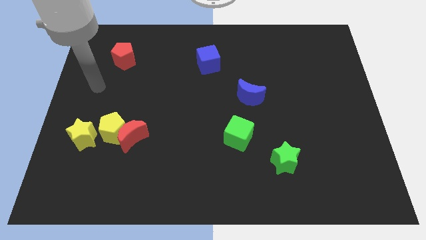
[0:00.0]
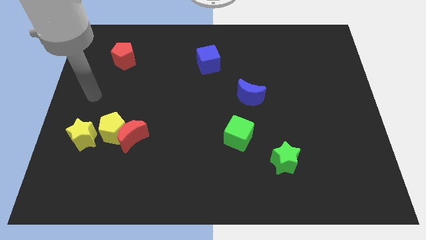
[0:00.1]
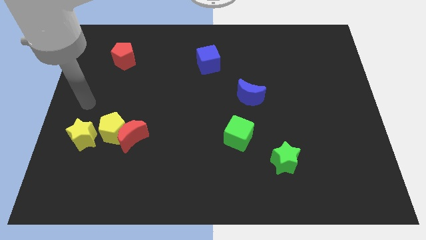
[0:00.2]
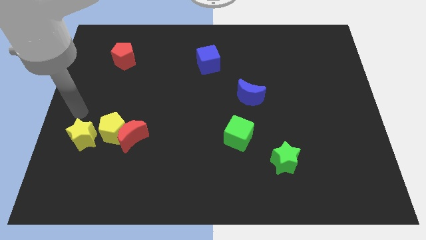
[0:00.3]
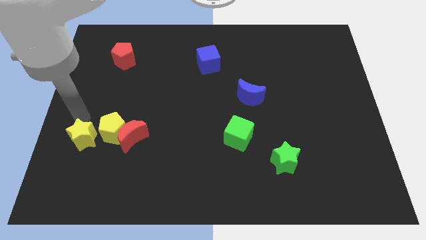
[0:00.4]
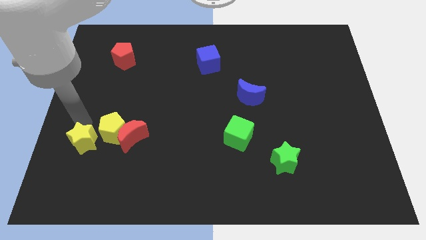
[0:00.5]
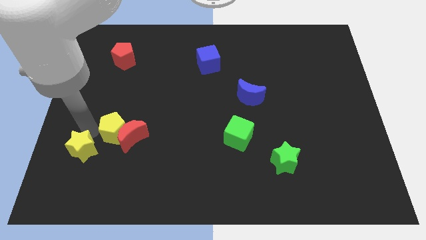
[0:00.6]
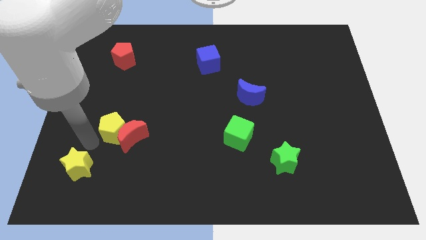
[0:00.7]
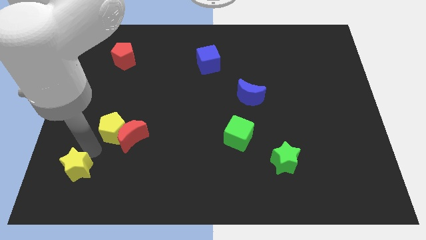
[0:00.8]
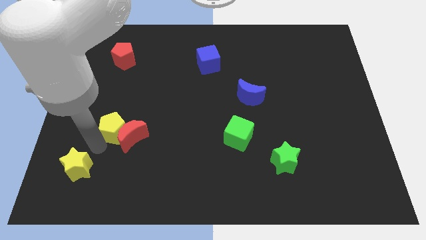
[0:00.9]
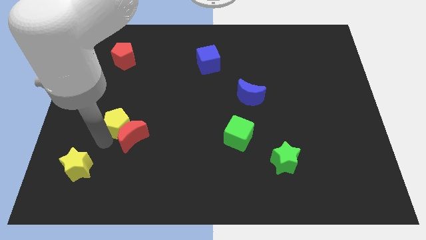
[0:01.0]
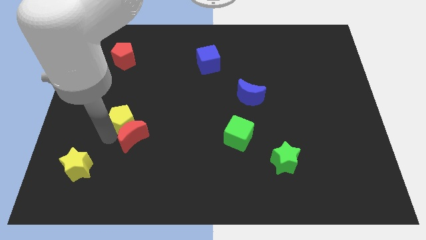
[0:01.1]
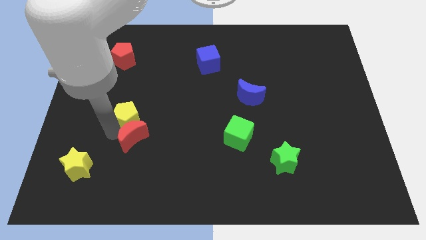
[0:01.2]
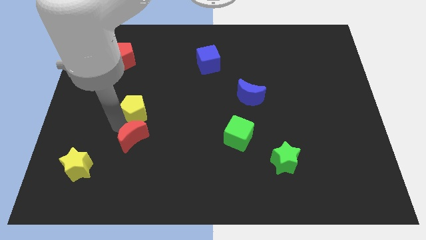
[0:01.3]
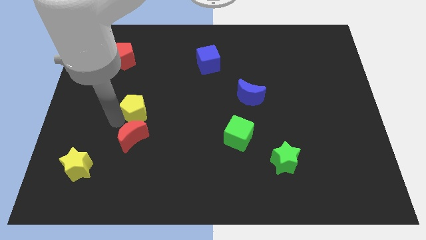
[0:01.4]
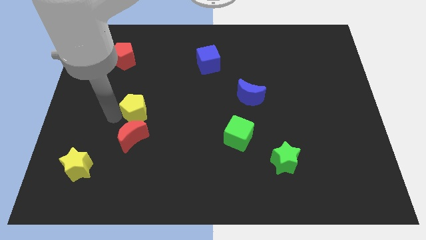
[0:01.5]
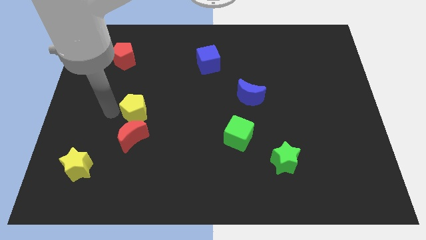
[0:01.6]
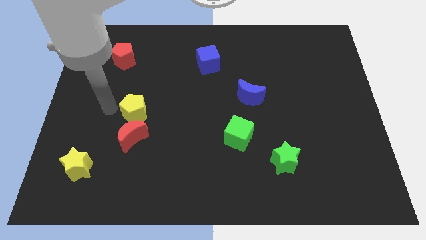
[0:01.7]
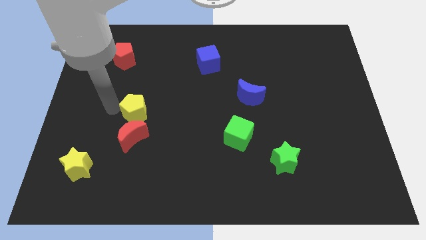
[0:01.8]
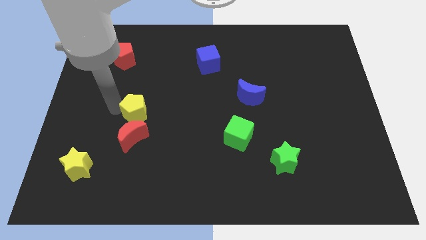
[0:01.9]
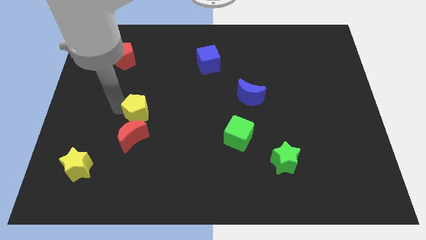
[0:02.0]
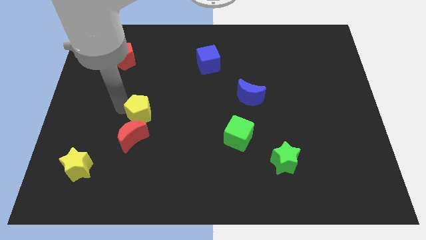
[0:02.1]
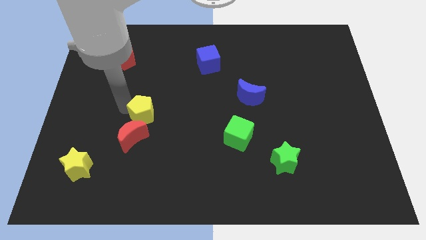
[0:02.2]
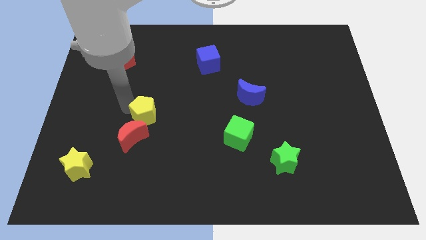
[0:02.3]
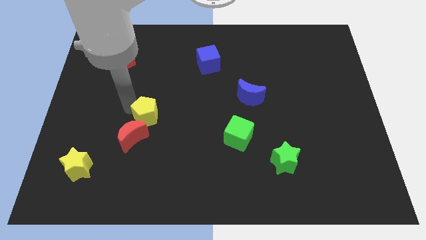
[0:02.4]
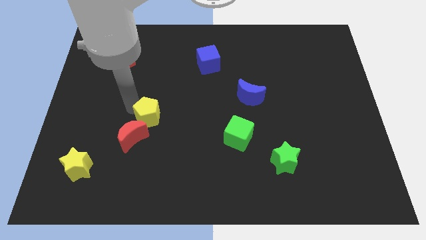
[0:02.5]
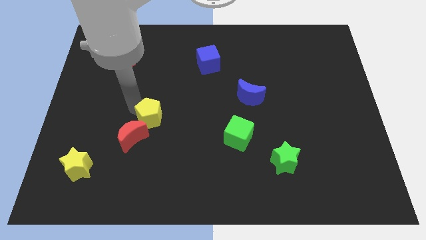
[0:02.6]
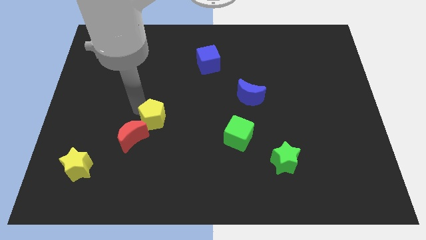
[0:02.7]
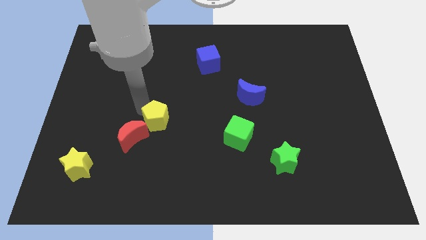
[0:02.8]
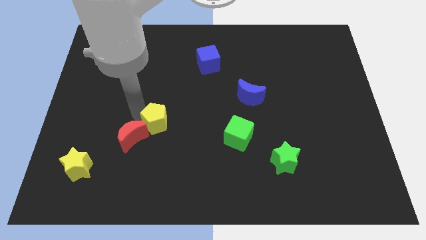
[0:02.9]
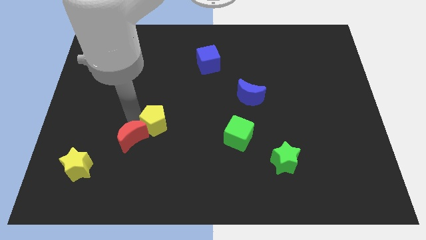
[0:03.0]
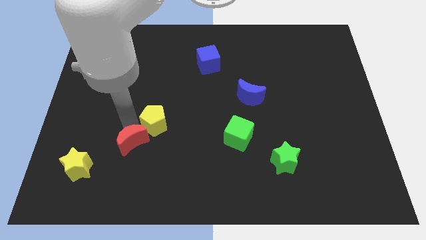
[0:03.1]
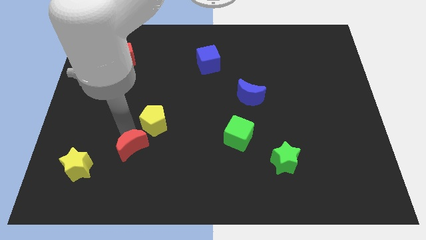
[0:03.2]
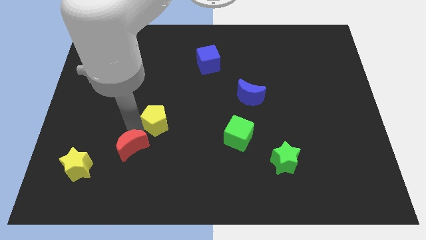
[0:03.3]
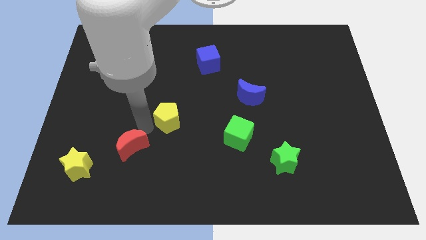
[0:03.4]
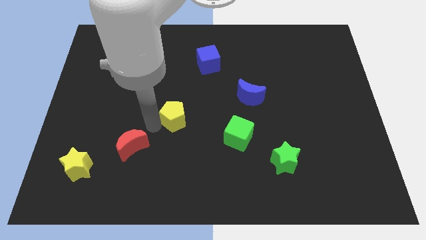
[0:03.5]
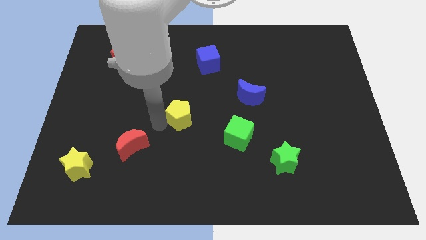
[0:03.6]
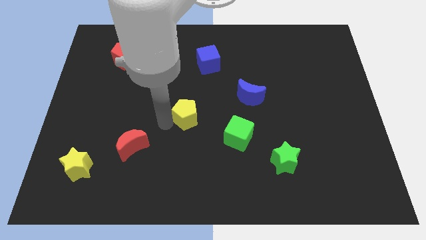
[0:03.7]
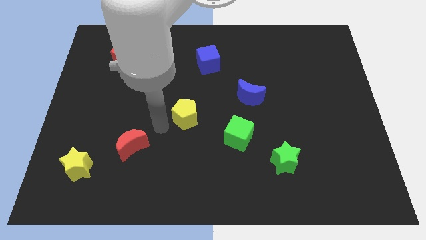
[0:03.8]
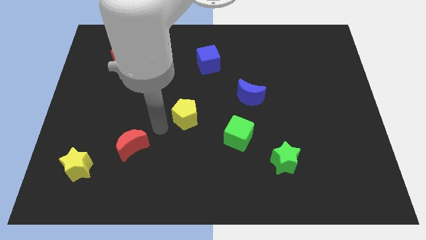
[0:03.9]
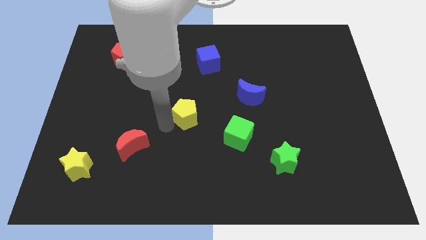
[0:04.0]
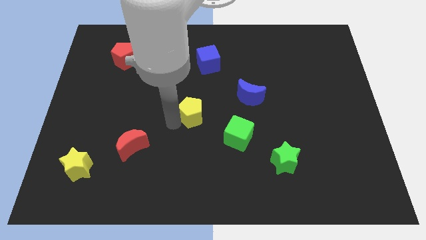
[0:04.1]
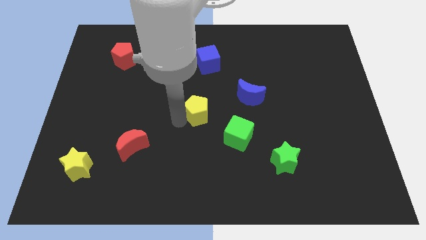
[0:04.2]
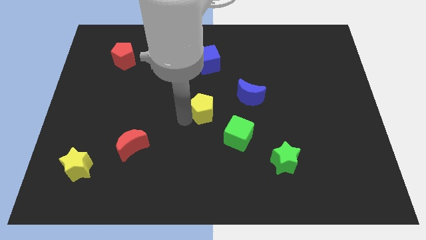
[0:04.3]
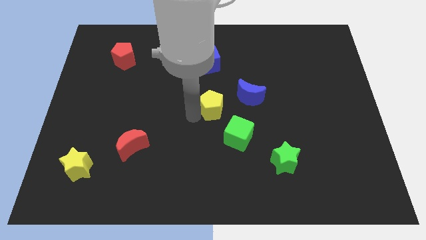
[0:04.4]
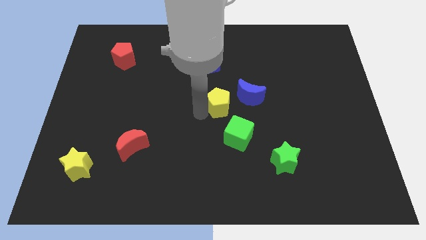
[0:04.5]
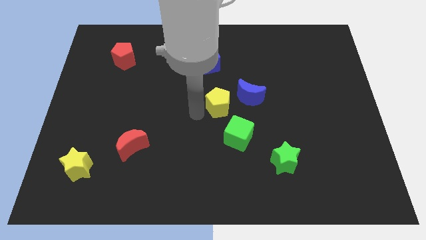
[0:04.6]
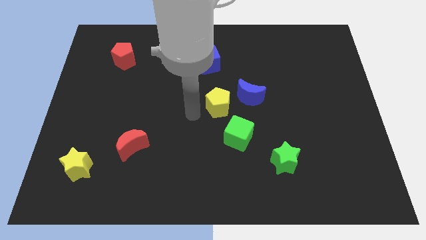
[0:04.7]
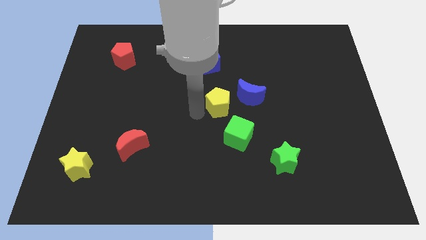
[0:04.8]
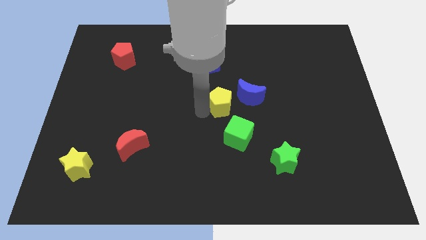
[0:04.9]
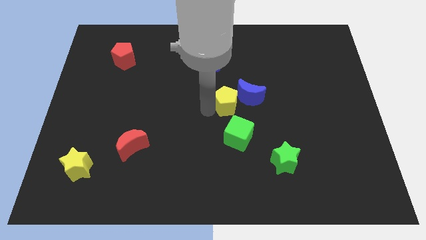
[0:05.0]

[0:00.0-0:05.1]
move the yellow pentagon next to the blue moon
